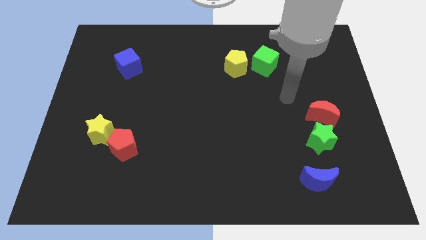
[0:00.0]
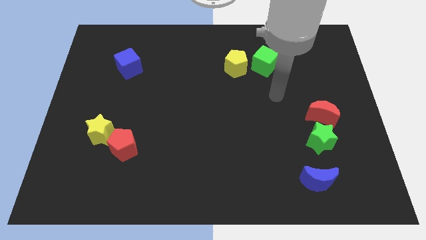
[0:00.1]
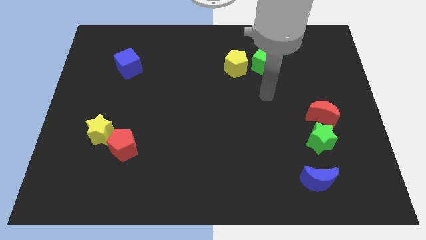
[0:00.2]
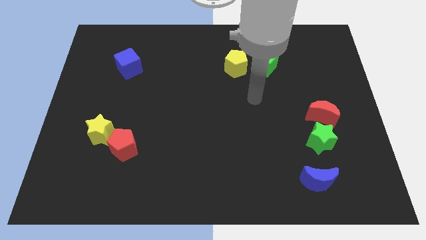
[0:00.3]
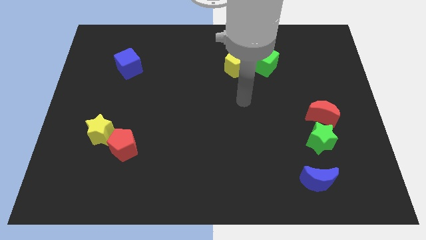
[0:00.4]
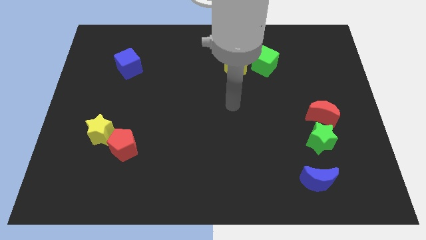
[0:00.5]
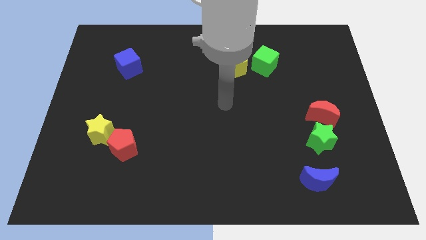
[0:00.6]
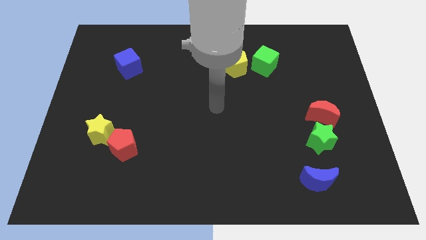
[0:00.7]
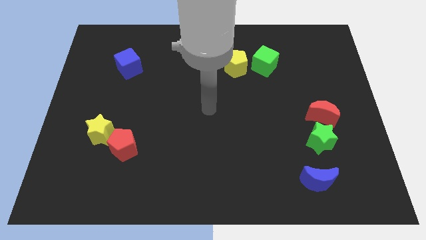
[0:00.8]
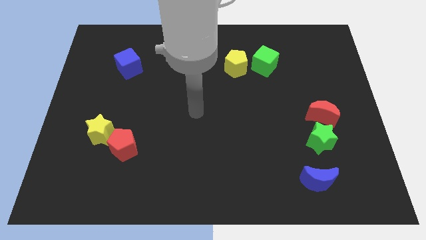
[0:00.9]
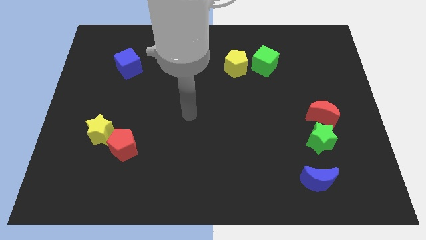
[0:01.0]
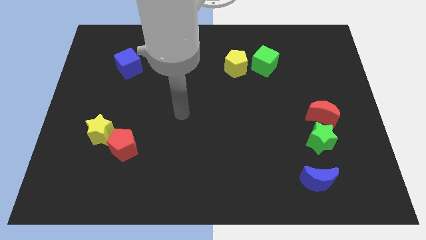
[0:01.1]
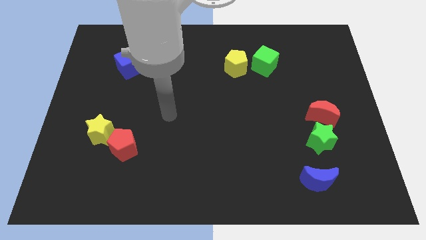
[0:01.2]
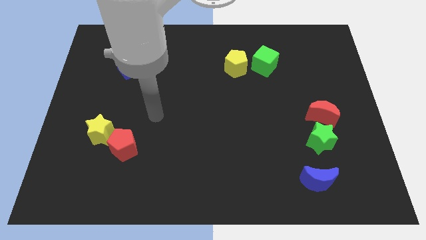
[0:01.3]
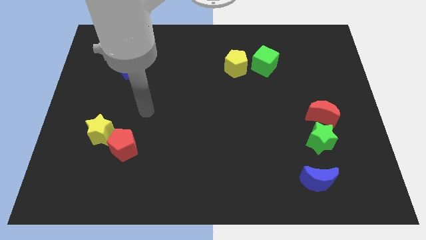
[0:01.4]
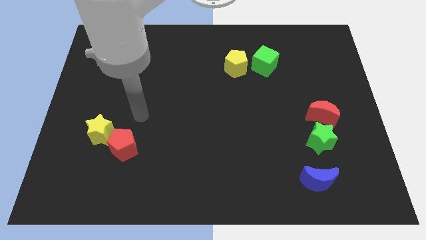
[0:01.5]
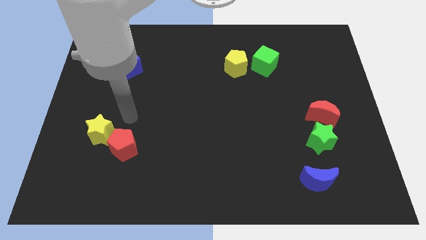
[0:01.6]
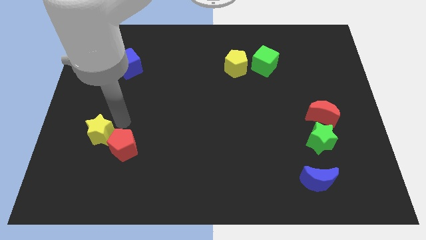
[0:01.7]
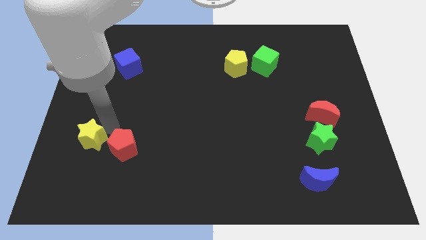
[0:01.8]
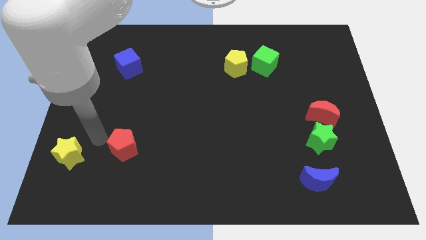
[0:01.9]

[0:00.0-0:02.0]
pull the red pentagon apart from the yellow star

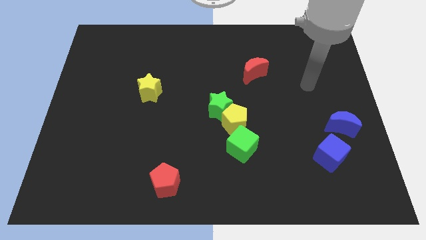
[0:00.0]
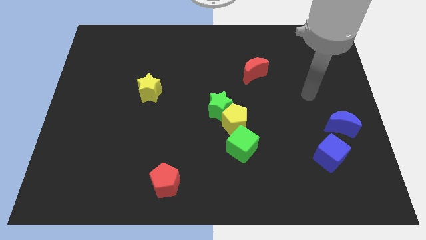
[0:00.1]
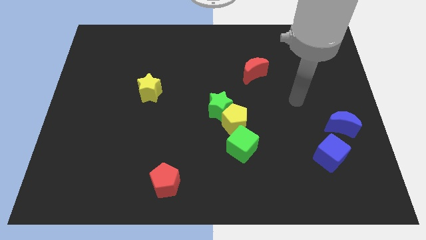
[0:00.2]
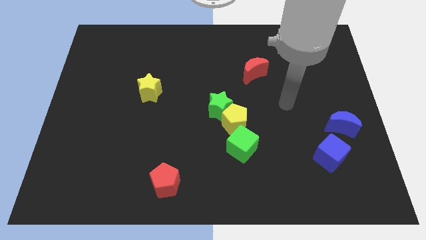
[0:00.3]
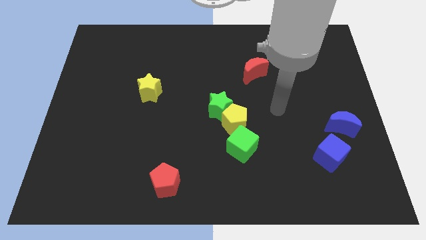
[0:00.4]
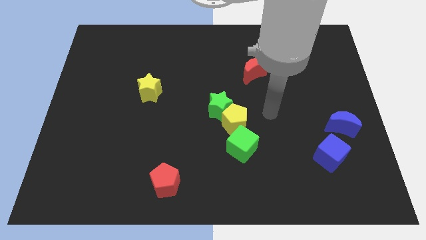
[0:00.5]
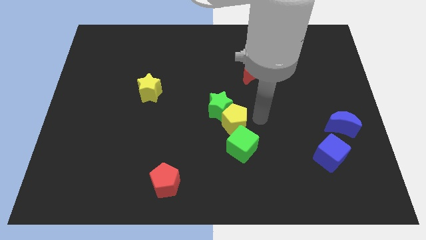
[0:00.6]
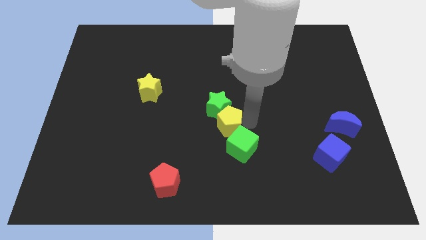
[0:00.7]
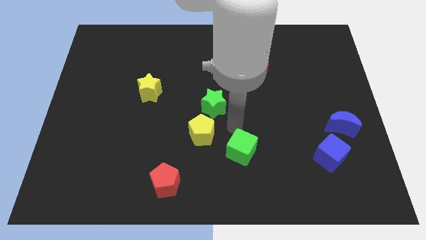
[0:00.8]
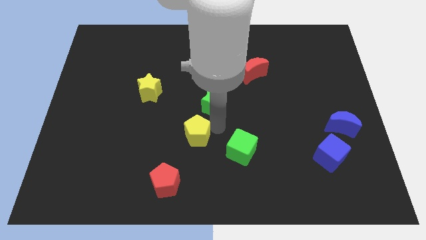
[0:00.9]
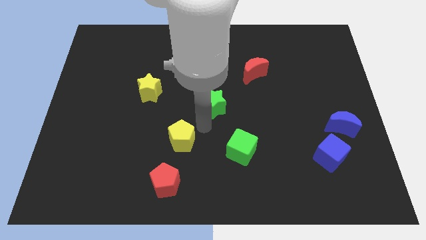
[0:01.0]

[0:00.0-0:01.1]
move the green star away from the yellow pentagon

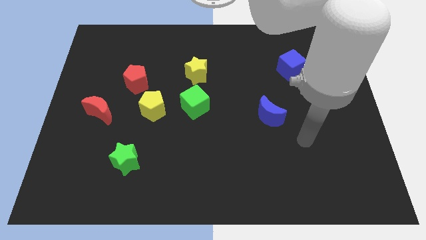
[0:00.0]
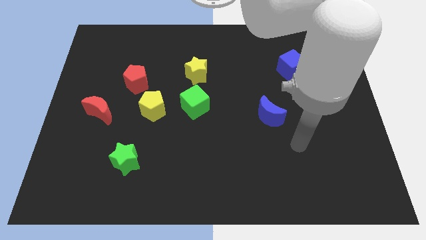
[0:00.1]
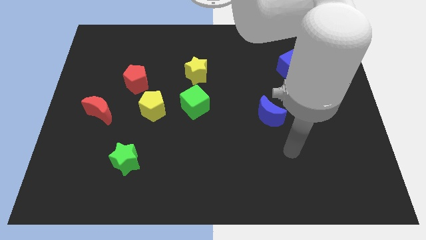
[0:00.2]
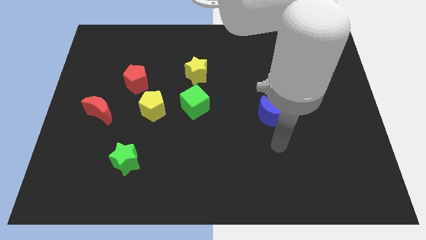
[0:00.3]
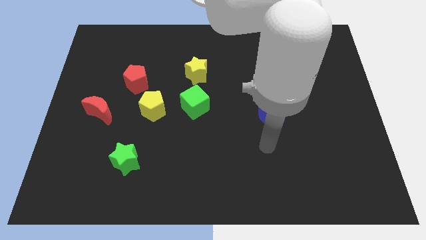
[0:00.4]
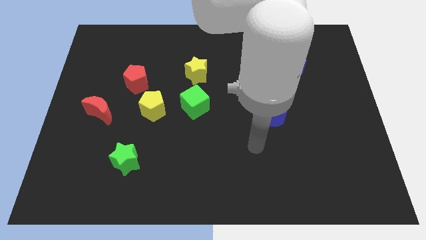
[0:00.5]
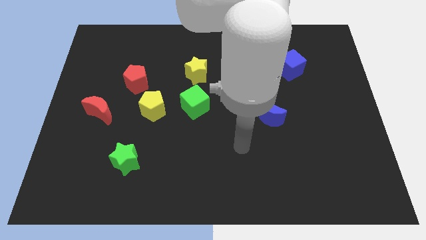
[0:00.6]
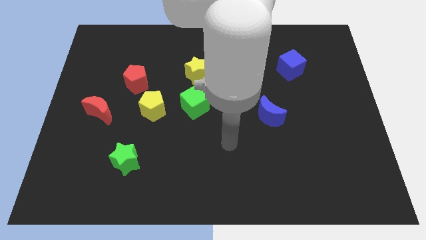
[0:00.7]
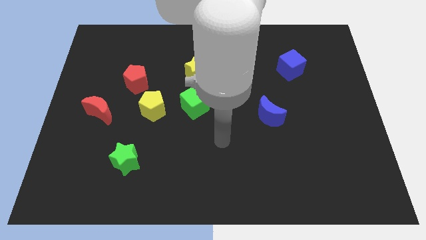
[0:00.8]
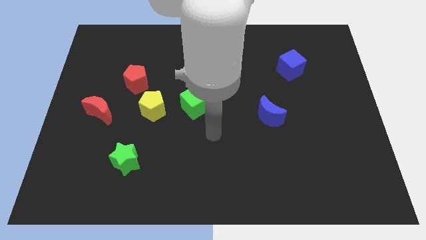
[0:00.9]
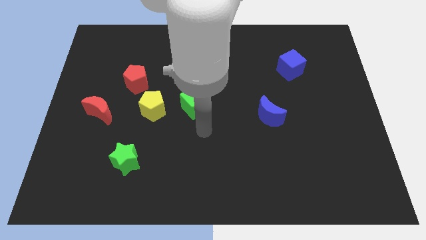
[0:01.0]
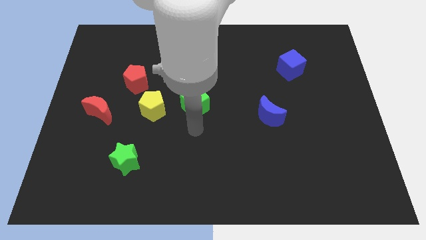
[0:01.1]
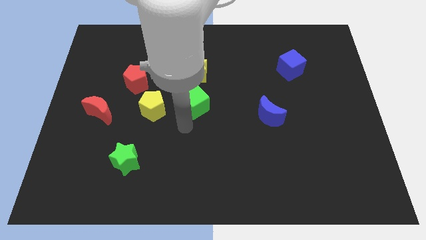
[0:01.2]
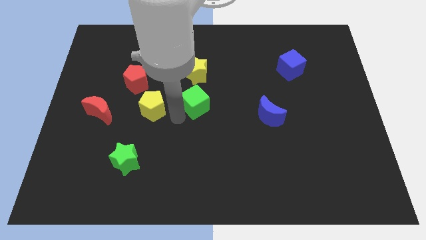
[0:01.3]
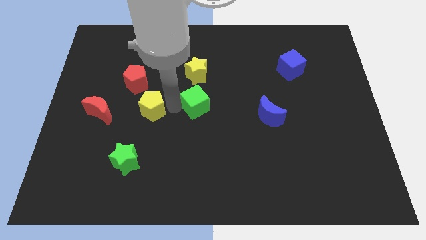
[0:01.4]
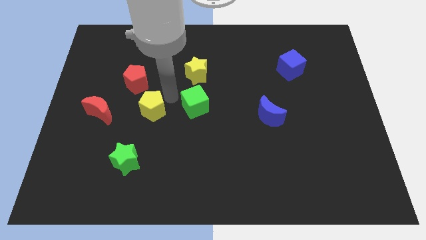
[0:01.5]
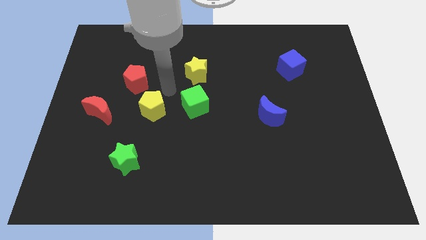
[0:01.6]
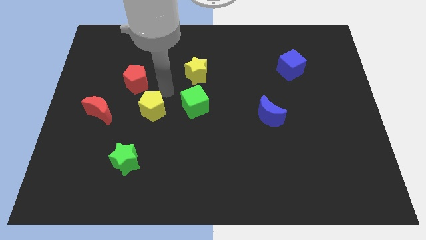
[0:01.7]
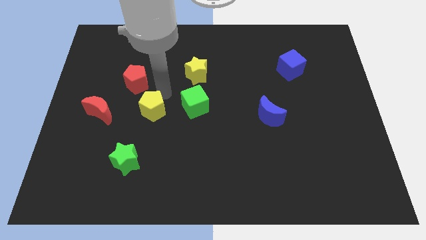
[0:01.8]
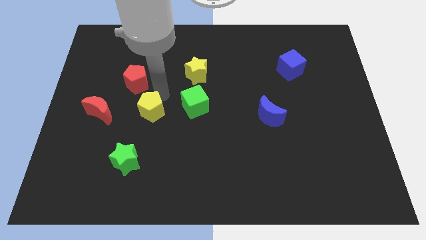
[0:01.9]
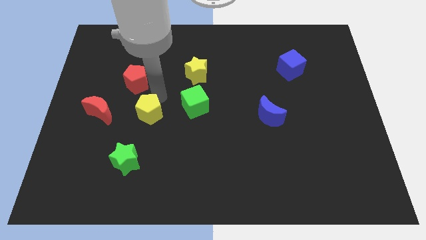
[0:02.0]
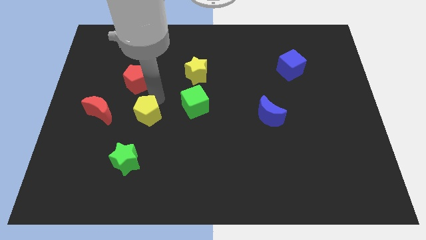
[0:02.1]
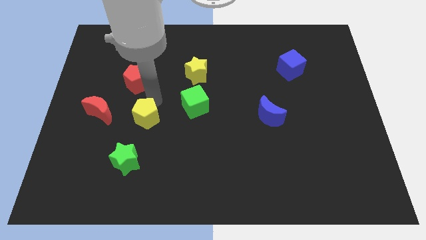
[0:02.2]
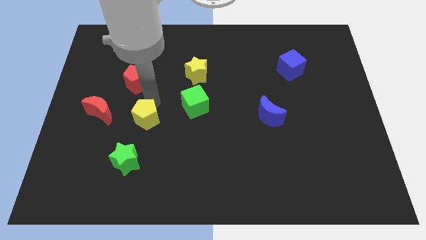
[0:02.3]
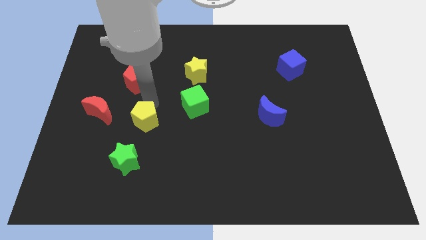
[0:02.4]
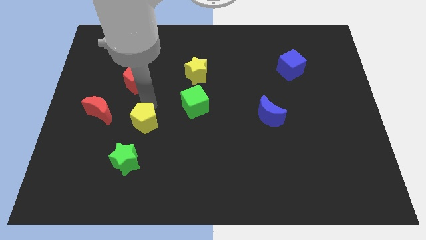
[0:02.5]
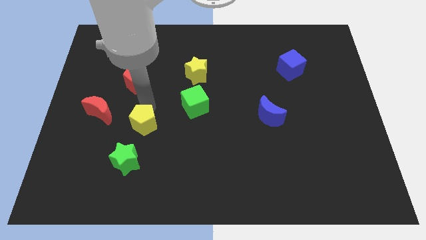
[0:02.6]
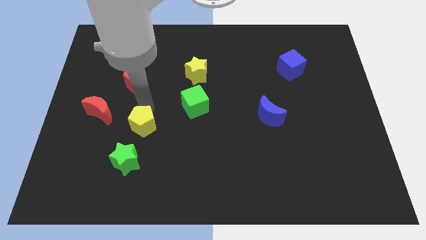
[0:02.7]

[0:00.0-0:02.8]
pull the yellow pentagon apart from the green cube and red pentagon

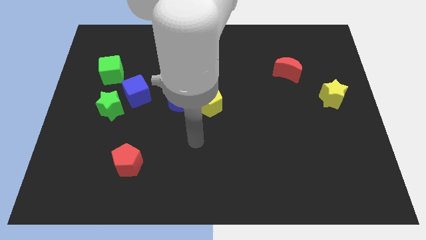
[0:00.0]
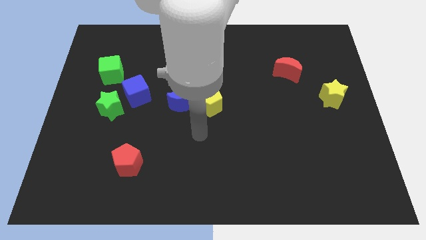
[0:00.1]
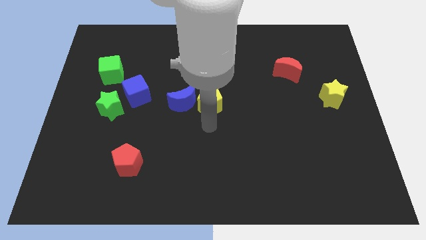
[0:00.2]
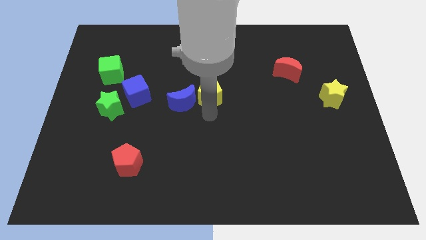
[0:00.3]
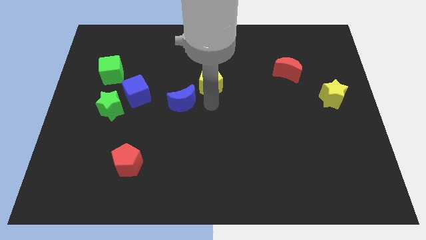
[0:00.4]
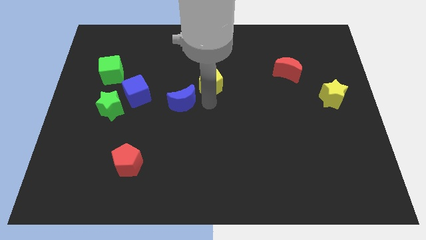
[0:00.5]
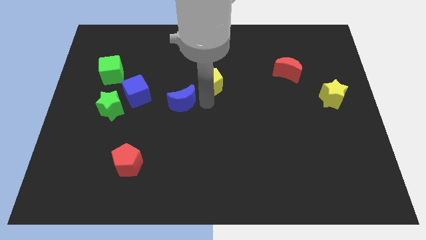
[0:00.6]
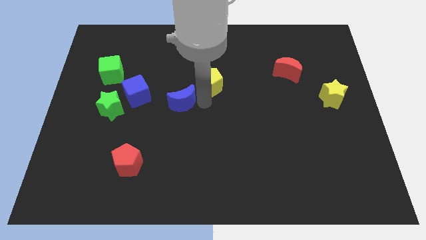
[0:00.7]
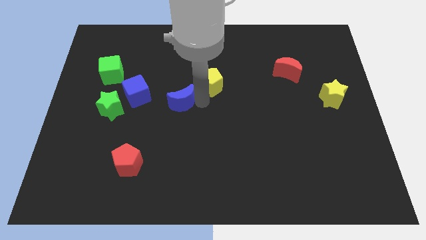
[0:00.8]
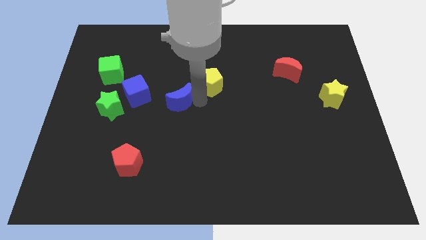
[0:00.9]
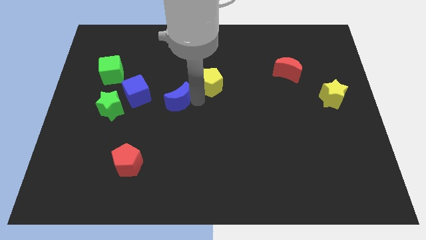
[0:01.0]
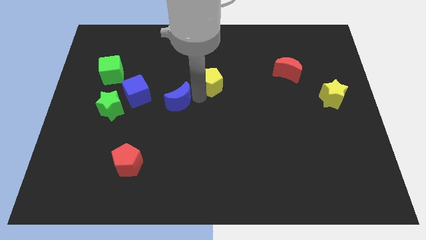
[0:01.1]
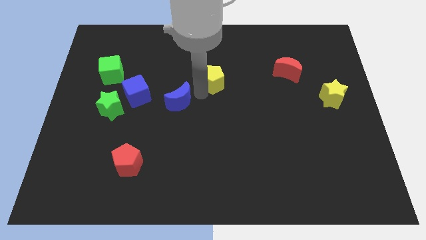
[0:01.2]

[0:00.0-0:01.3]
pull the blue moon apart from the yellow pentagon

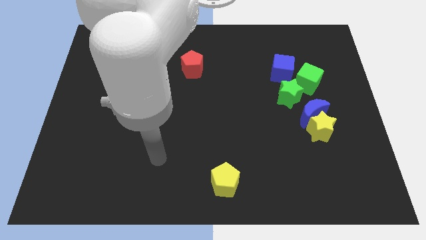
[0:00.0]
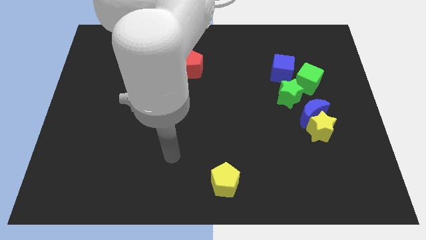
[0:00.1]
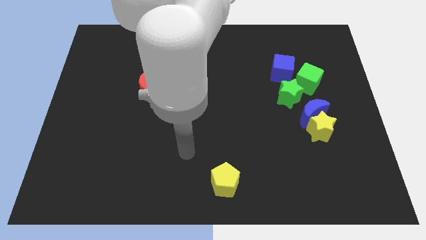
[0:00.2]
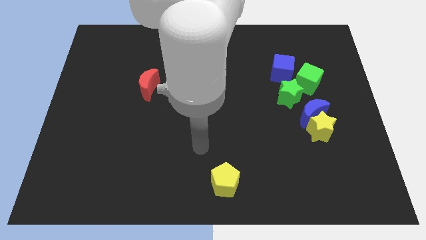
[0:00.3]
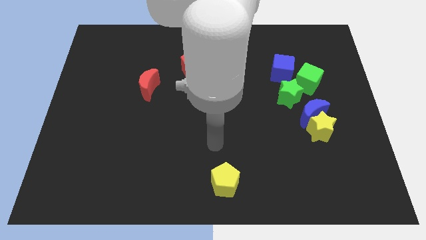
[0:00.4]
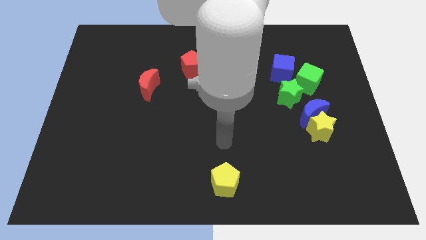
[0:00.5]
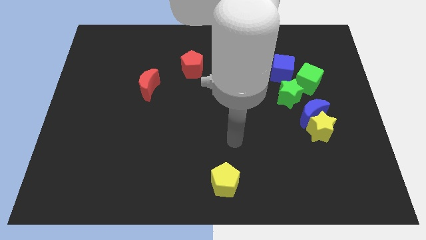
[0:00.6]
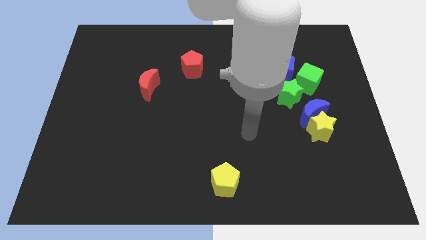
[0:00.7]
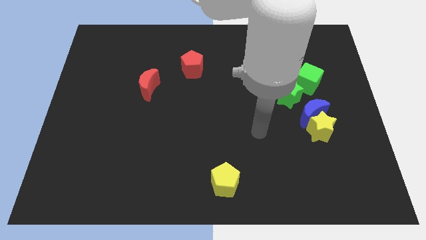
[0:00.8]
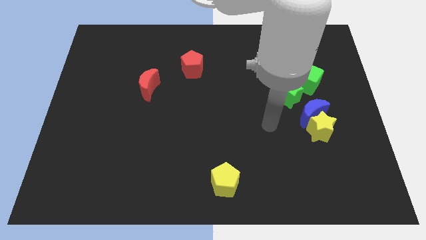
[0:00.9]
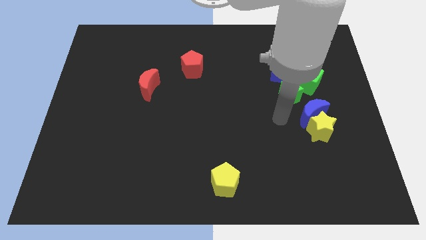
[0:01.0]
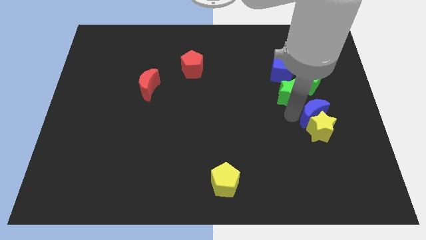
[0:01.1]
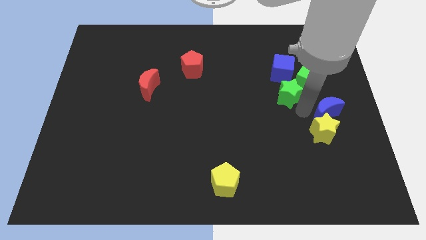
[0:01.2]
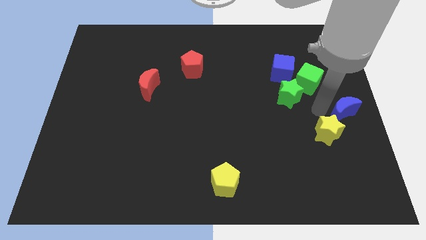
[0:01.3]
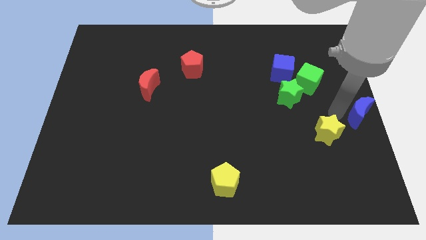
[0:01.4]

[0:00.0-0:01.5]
pull the yellow star apart from the blue moon

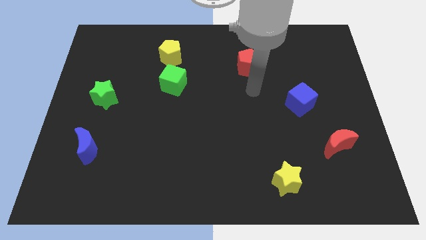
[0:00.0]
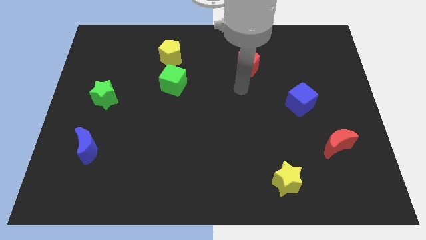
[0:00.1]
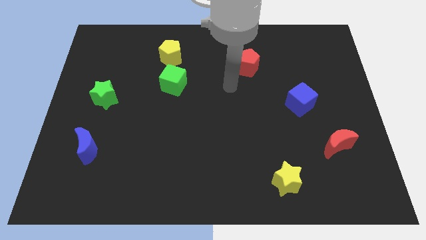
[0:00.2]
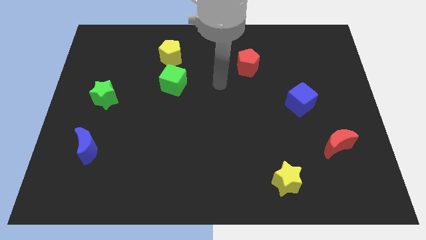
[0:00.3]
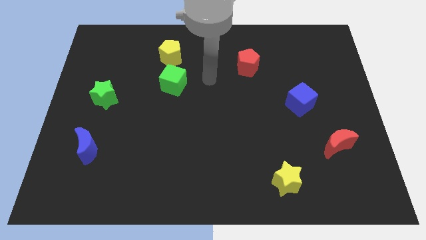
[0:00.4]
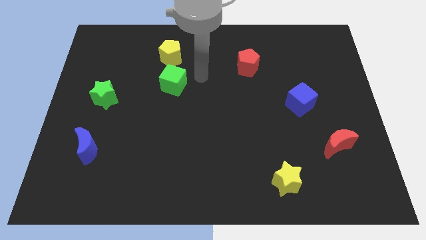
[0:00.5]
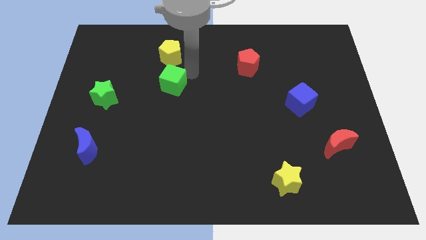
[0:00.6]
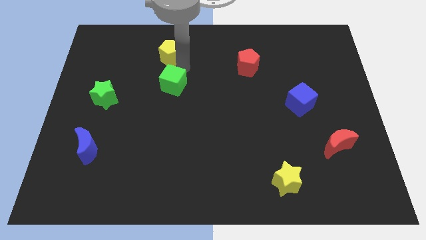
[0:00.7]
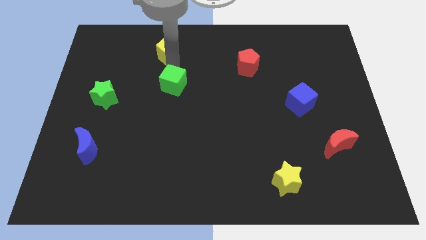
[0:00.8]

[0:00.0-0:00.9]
move the green cube away from the yellow pentagon
